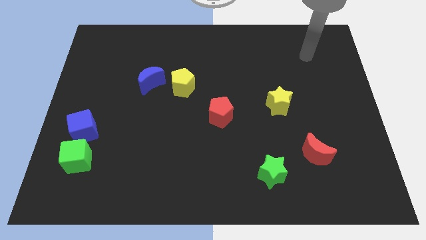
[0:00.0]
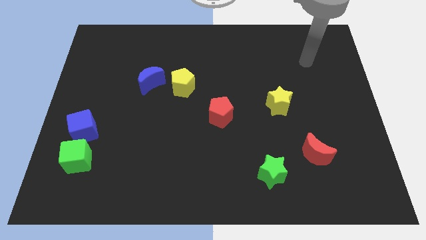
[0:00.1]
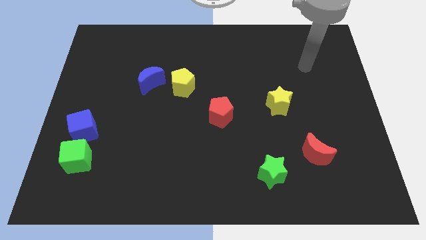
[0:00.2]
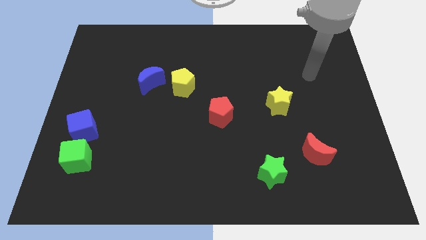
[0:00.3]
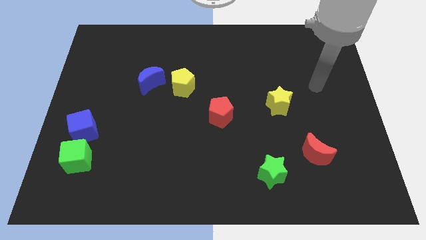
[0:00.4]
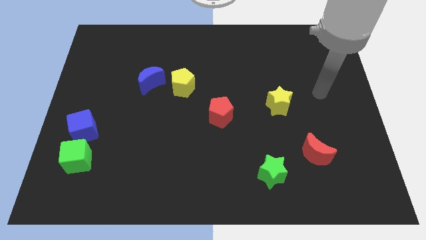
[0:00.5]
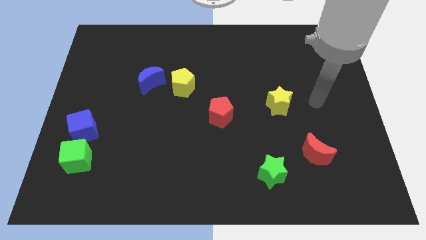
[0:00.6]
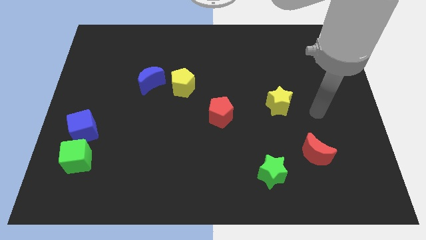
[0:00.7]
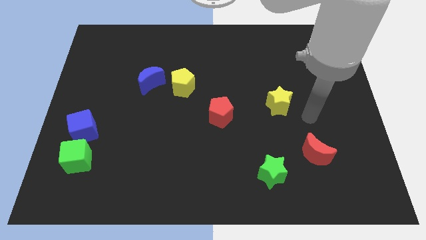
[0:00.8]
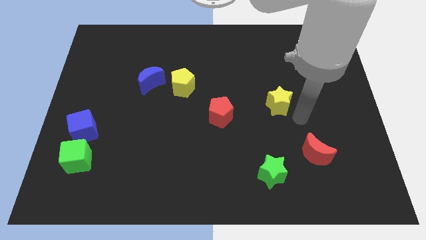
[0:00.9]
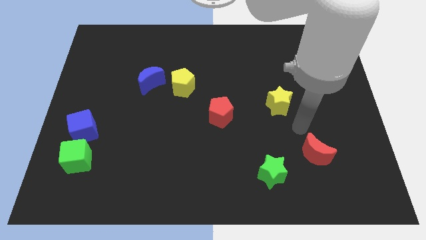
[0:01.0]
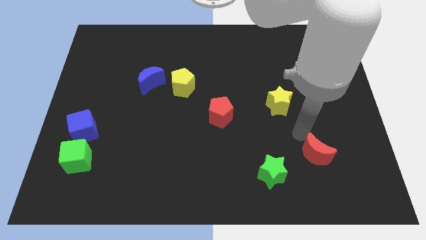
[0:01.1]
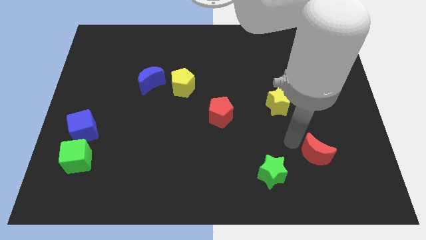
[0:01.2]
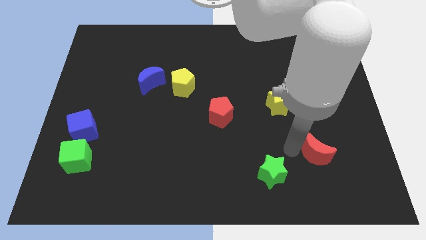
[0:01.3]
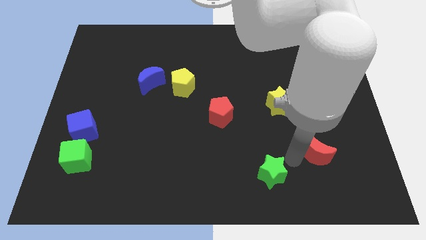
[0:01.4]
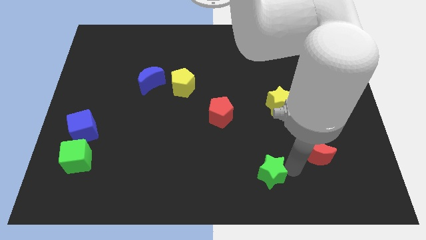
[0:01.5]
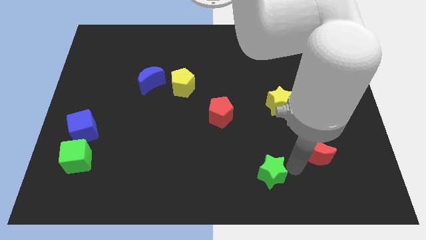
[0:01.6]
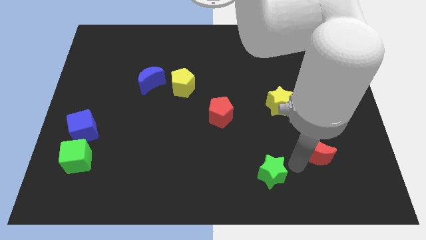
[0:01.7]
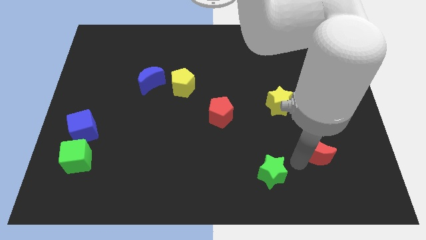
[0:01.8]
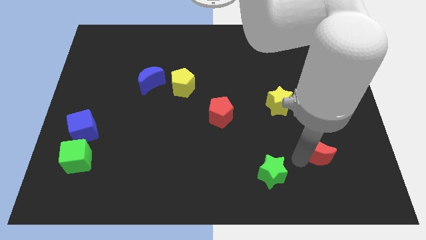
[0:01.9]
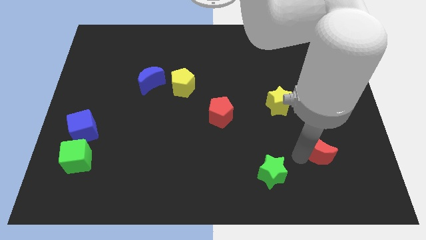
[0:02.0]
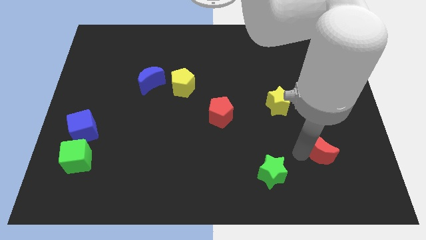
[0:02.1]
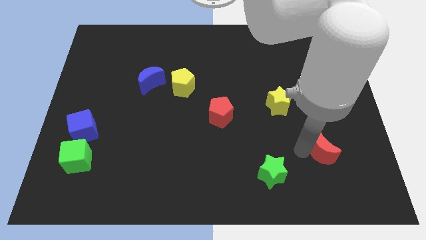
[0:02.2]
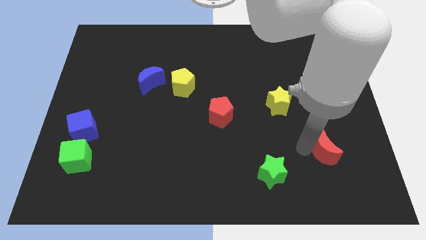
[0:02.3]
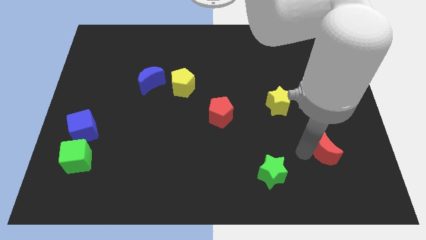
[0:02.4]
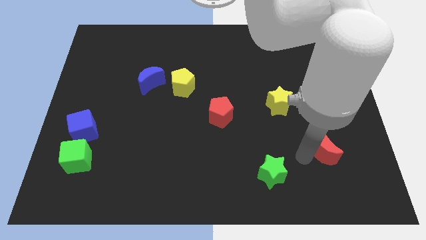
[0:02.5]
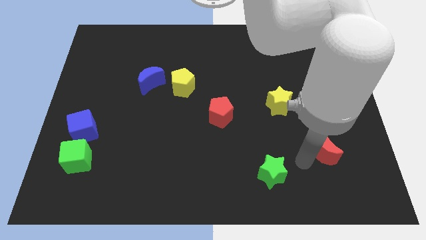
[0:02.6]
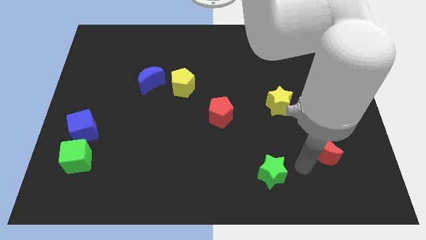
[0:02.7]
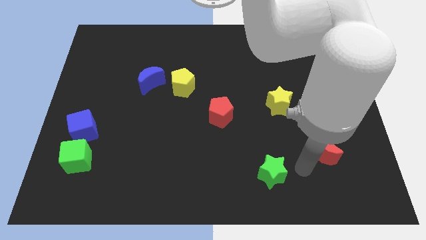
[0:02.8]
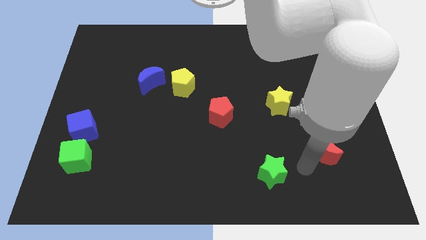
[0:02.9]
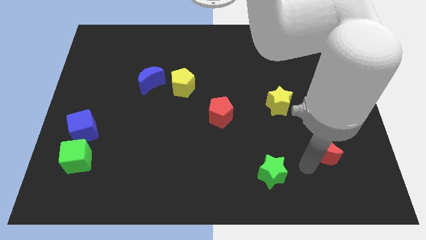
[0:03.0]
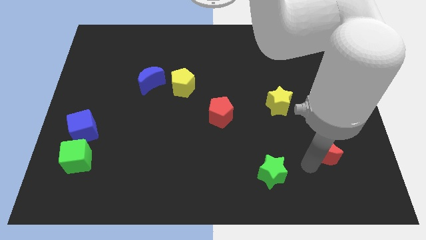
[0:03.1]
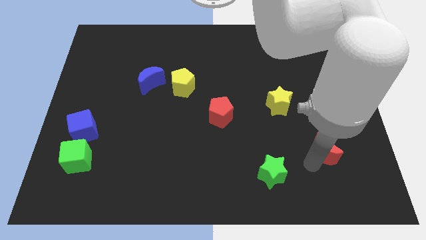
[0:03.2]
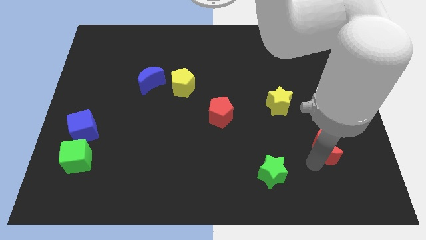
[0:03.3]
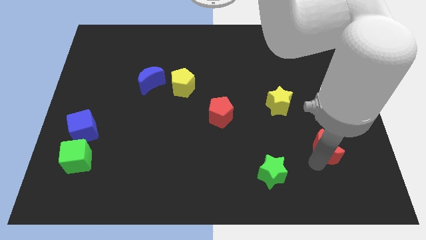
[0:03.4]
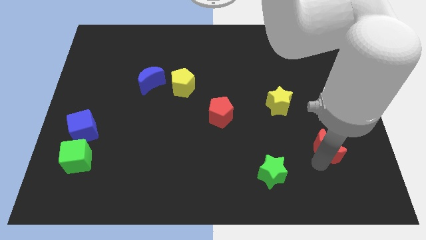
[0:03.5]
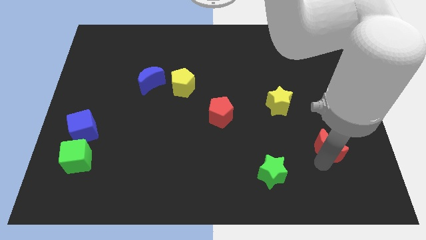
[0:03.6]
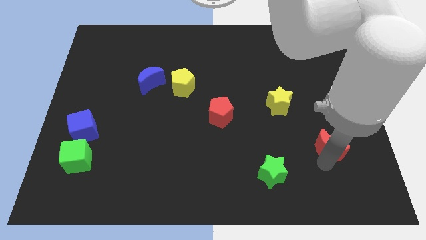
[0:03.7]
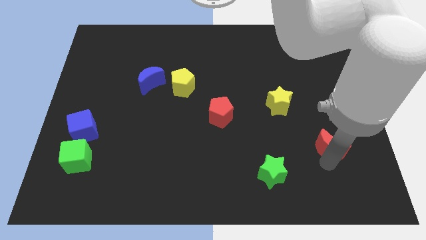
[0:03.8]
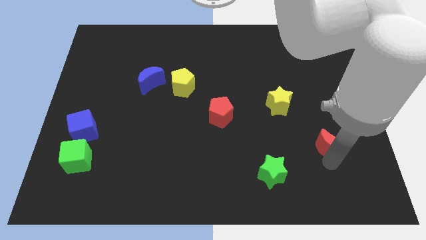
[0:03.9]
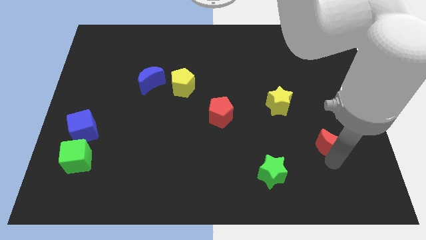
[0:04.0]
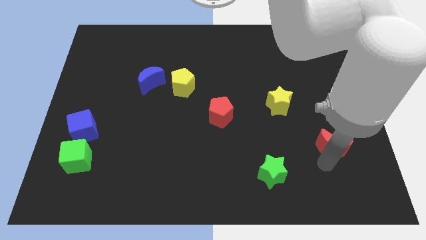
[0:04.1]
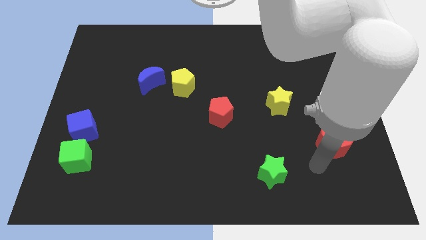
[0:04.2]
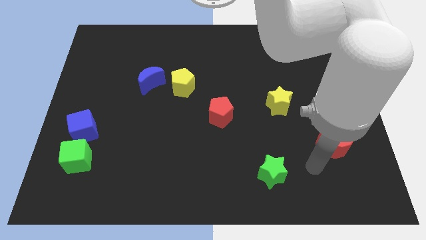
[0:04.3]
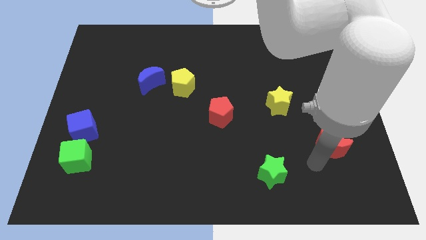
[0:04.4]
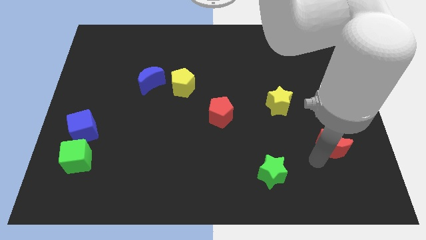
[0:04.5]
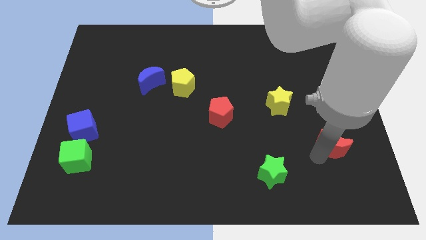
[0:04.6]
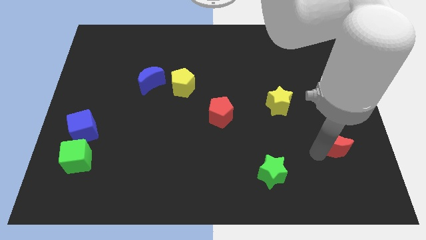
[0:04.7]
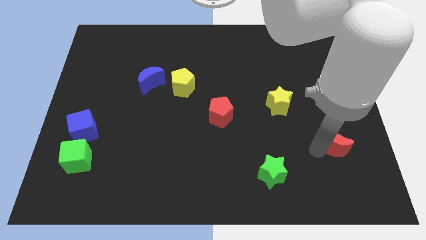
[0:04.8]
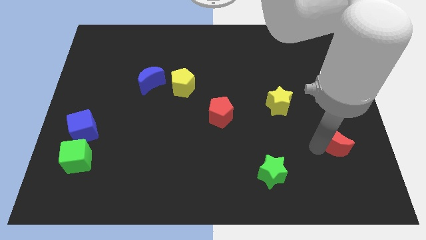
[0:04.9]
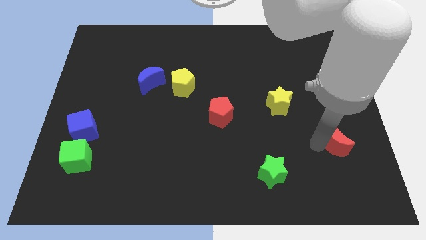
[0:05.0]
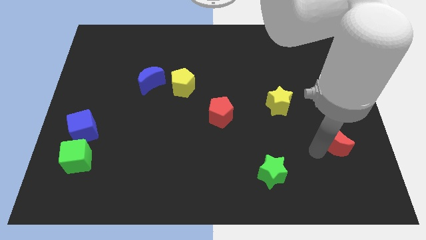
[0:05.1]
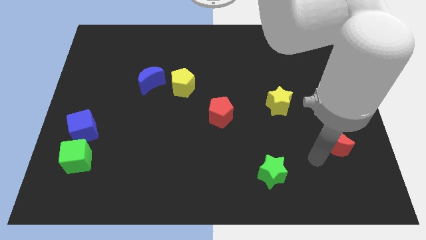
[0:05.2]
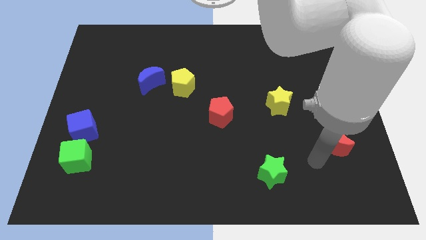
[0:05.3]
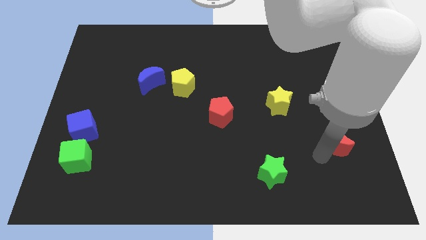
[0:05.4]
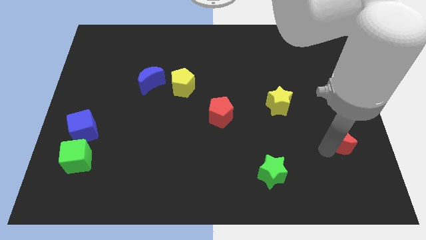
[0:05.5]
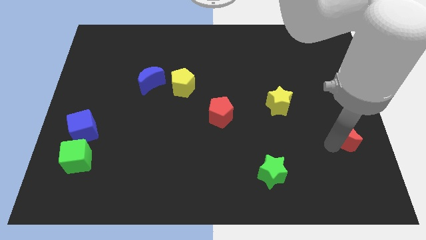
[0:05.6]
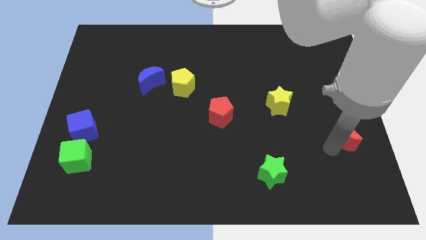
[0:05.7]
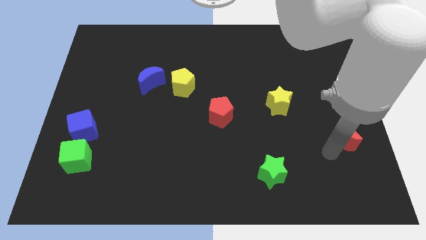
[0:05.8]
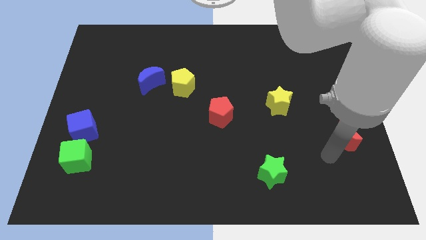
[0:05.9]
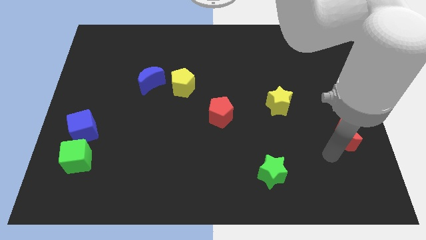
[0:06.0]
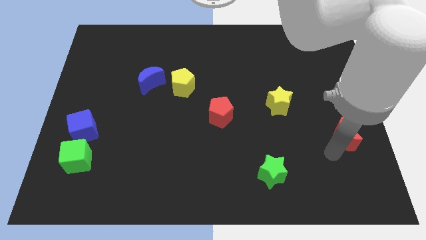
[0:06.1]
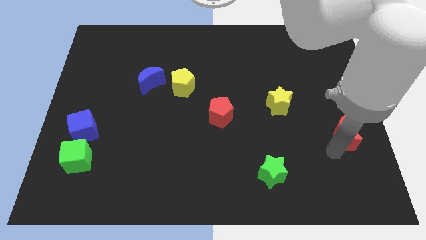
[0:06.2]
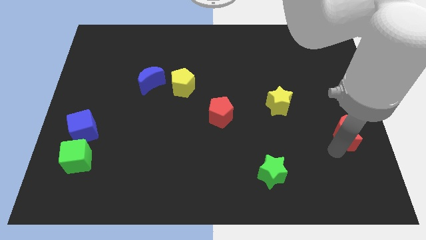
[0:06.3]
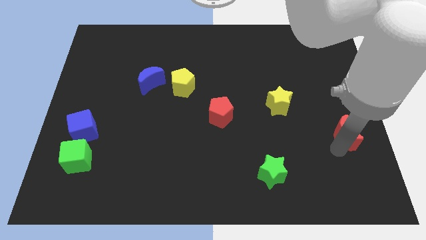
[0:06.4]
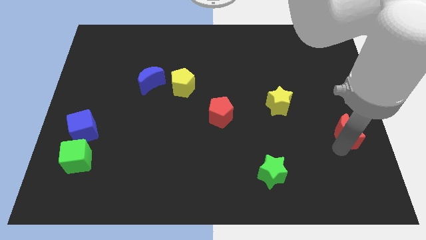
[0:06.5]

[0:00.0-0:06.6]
put the red moon to the center right
